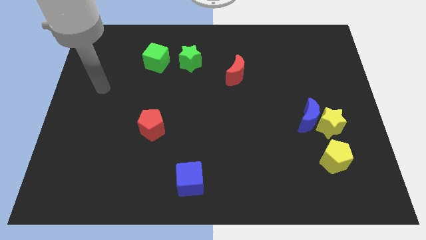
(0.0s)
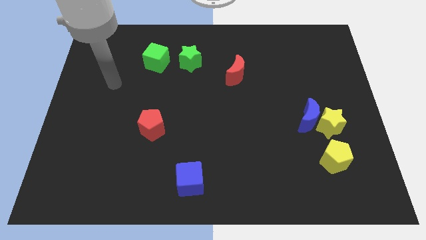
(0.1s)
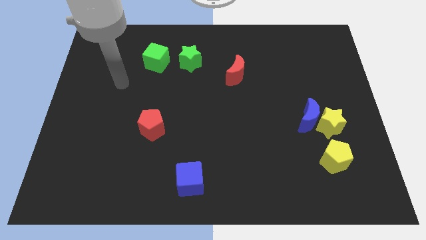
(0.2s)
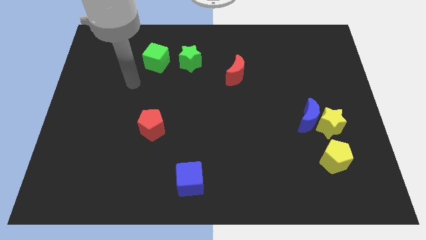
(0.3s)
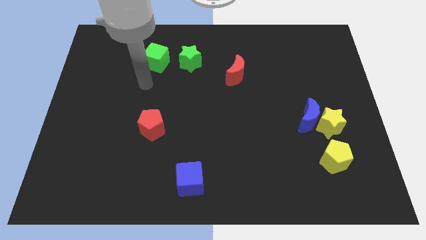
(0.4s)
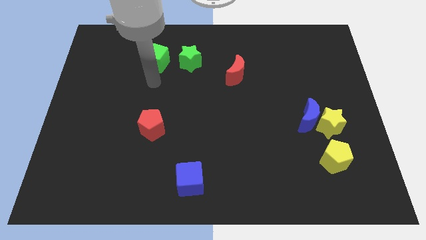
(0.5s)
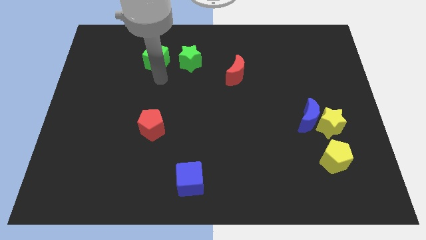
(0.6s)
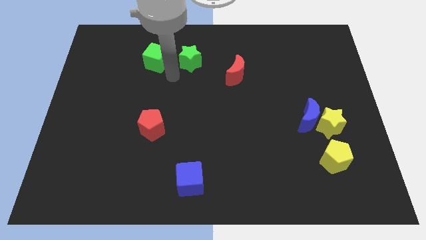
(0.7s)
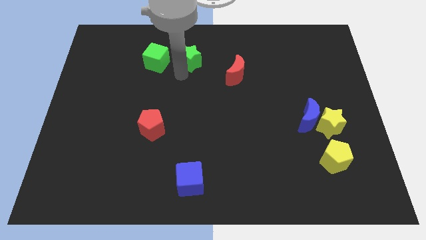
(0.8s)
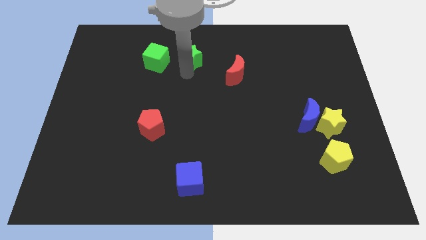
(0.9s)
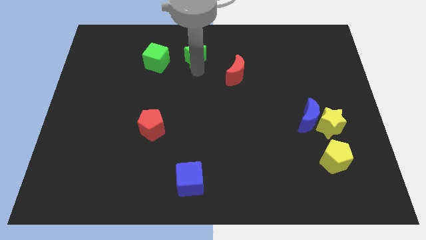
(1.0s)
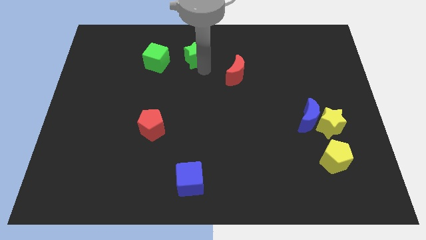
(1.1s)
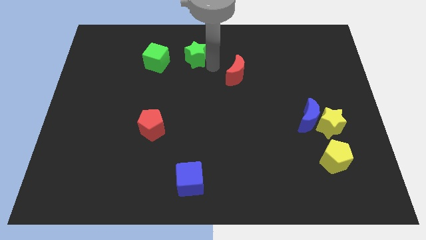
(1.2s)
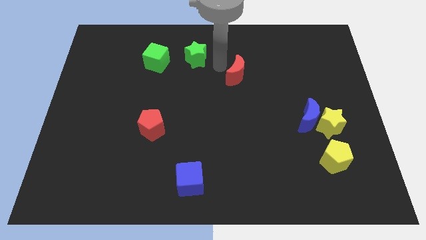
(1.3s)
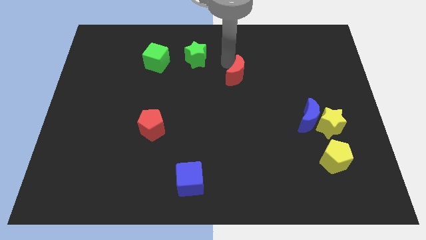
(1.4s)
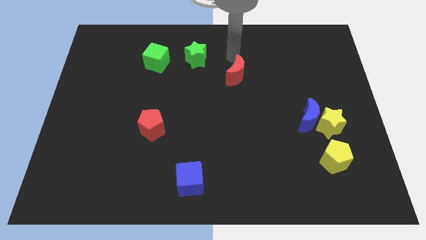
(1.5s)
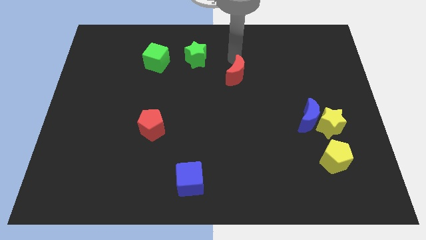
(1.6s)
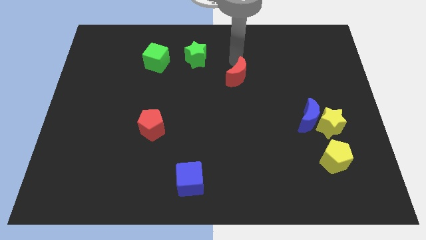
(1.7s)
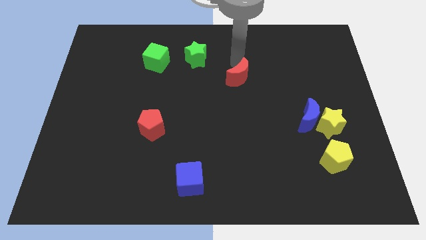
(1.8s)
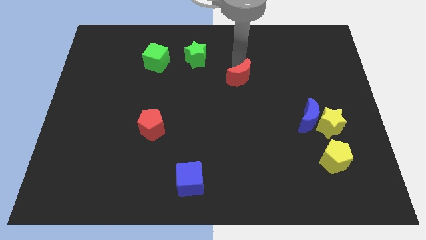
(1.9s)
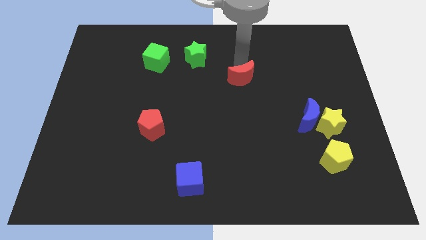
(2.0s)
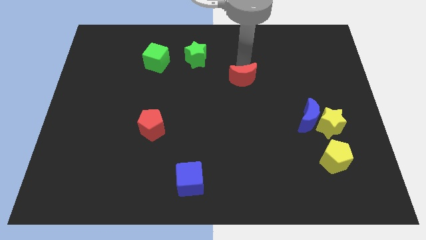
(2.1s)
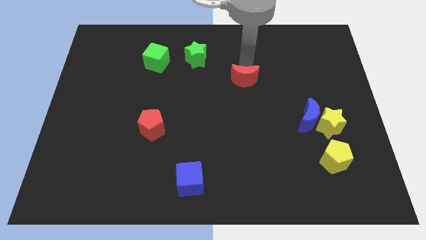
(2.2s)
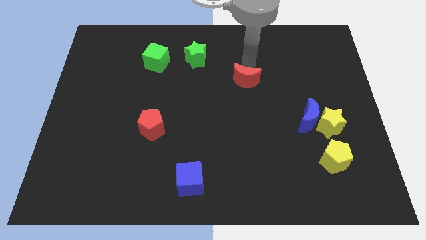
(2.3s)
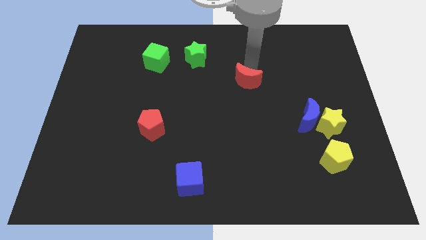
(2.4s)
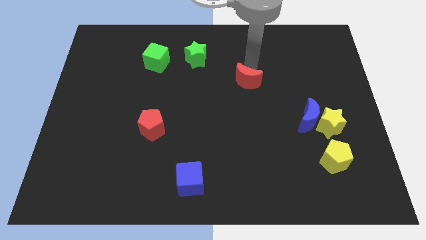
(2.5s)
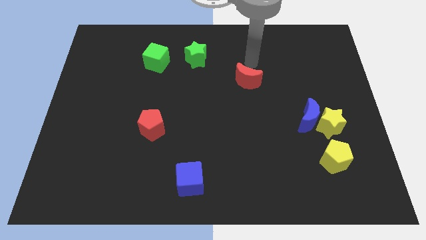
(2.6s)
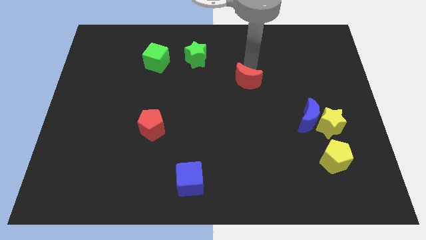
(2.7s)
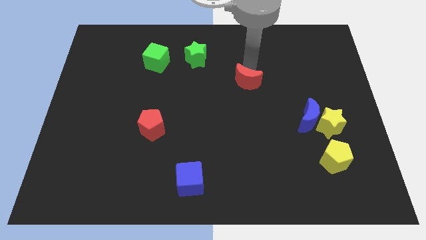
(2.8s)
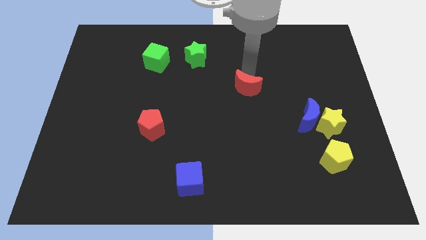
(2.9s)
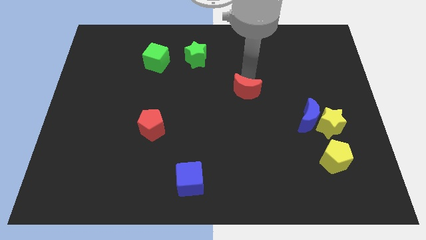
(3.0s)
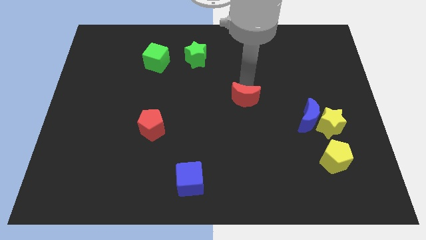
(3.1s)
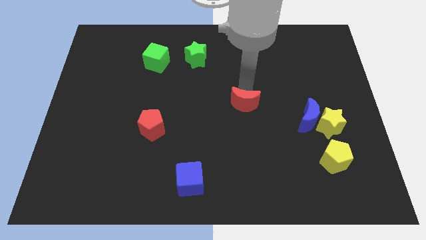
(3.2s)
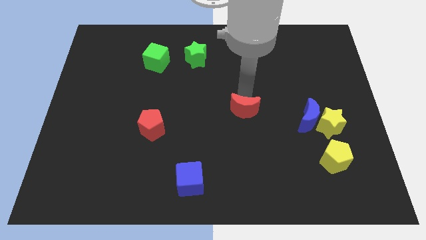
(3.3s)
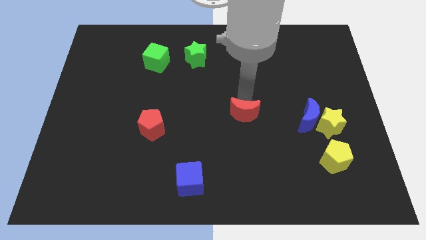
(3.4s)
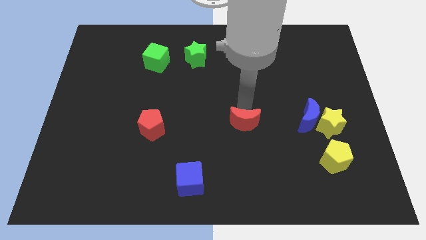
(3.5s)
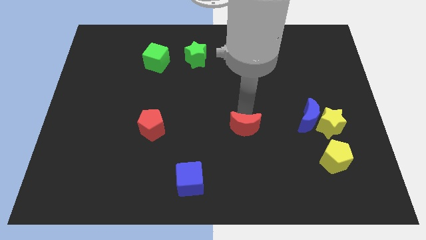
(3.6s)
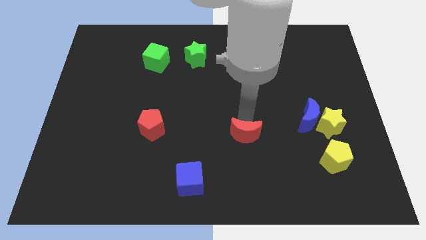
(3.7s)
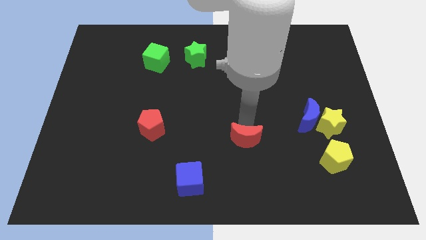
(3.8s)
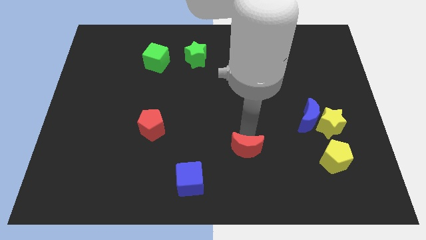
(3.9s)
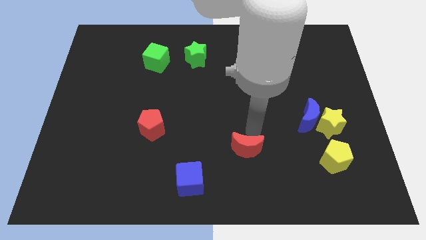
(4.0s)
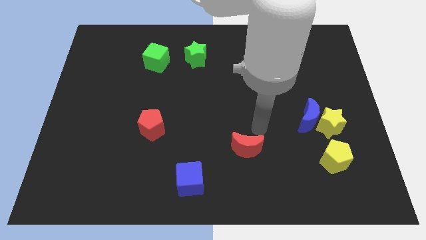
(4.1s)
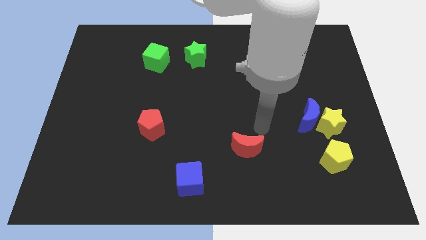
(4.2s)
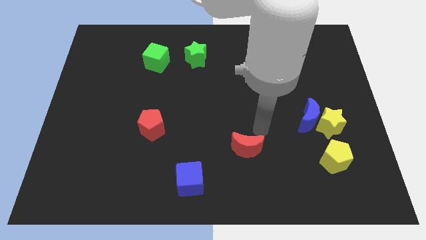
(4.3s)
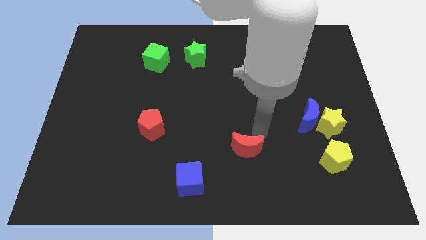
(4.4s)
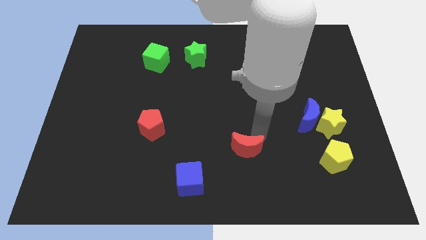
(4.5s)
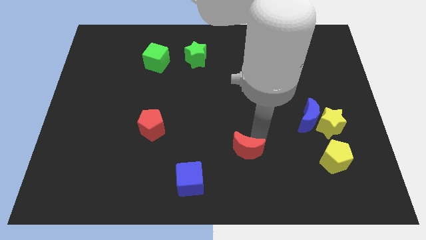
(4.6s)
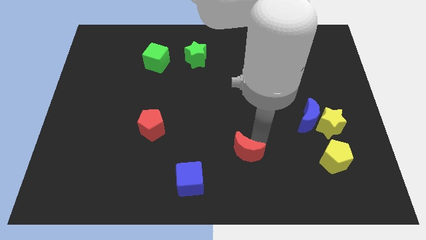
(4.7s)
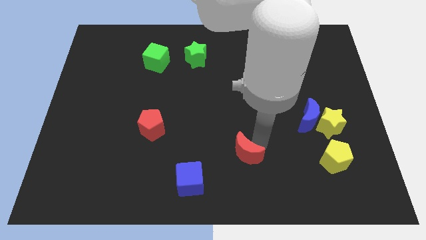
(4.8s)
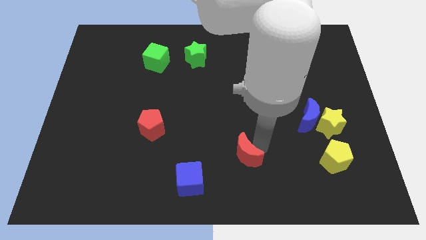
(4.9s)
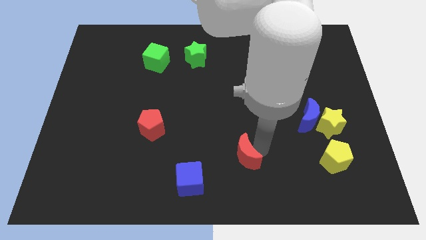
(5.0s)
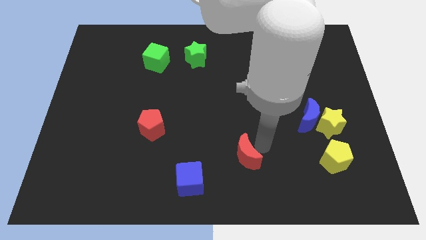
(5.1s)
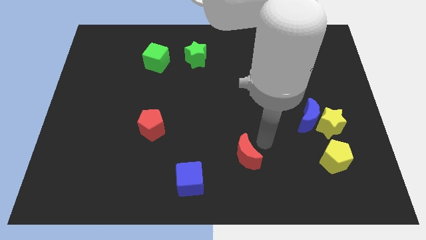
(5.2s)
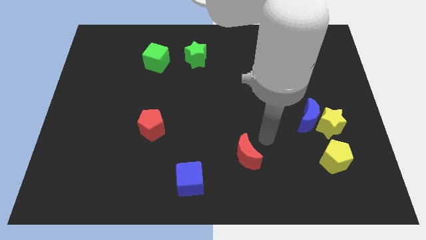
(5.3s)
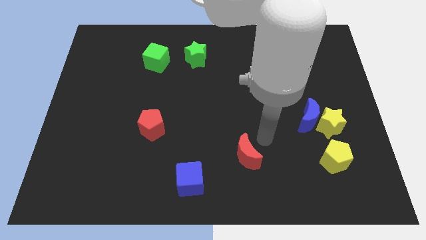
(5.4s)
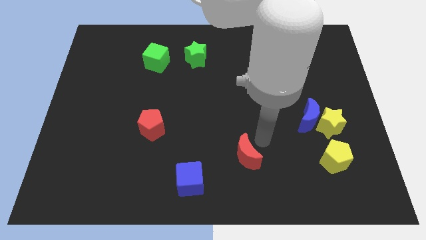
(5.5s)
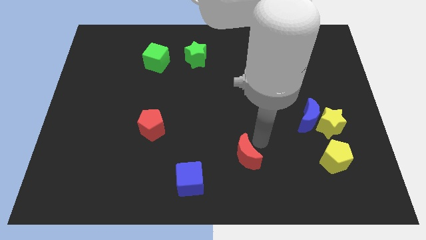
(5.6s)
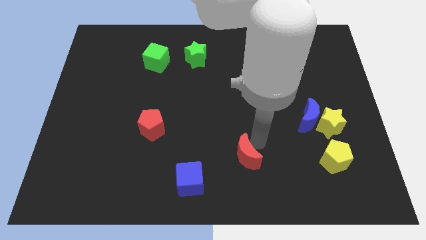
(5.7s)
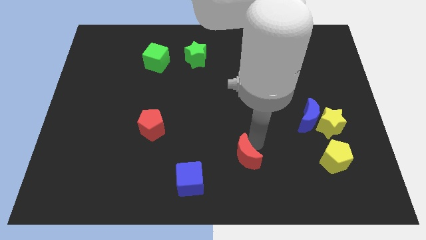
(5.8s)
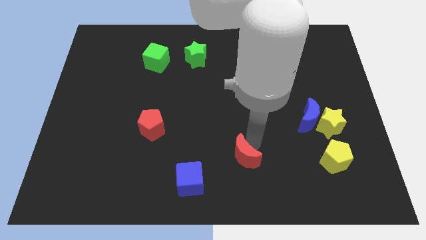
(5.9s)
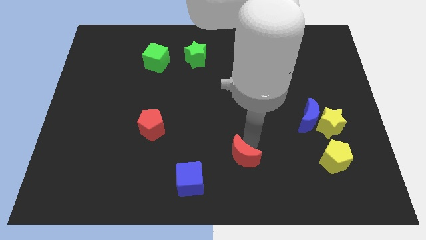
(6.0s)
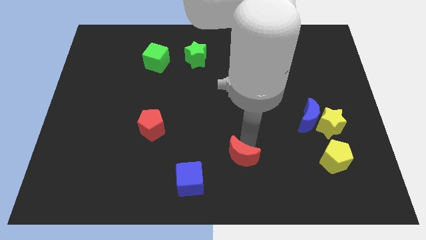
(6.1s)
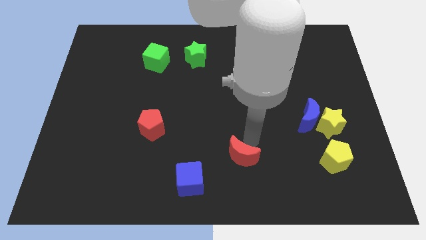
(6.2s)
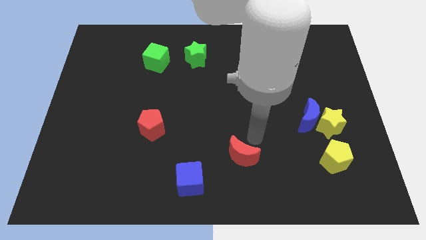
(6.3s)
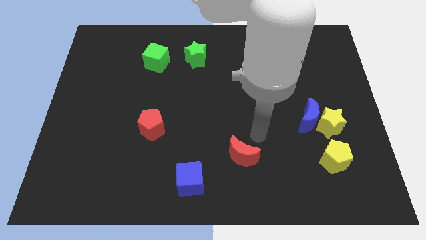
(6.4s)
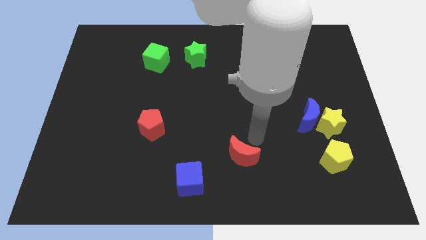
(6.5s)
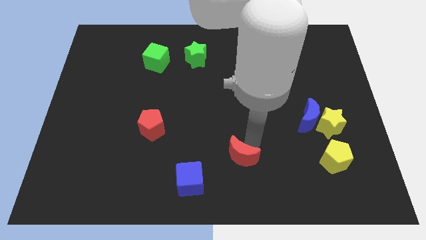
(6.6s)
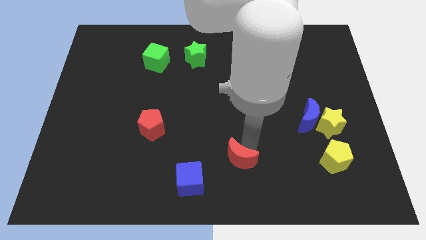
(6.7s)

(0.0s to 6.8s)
push the red moon to the bottom
